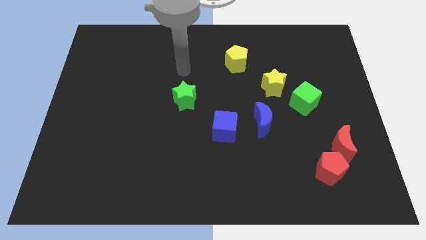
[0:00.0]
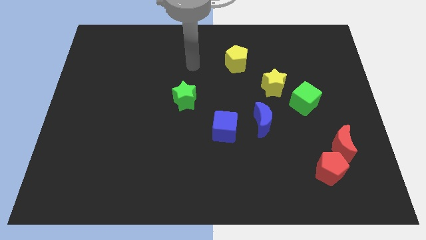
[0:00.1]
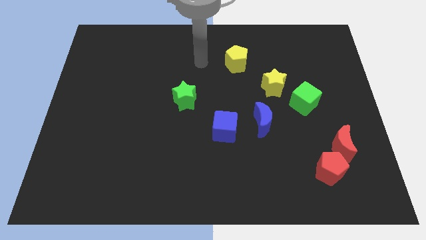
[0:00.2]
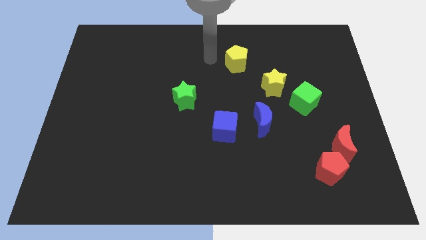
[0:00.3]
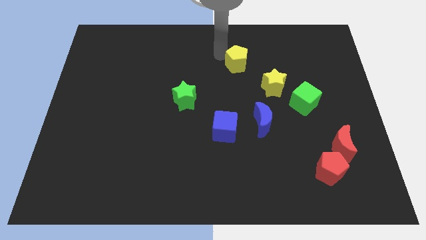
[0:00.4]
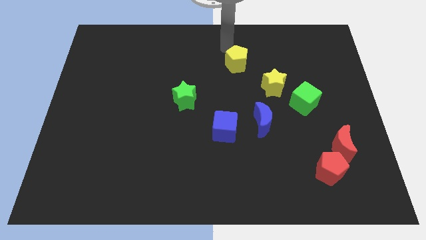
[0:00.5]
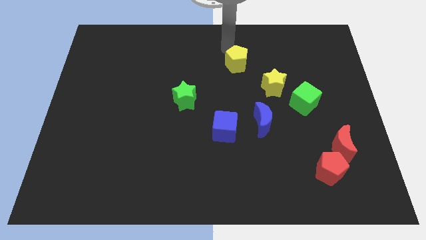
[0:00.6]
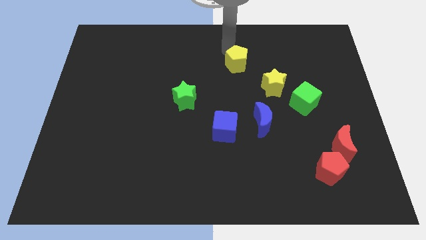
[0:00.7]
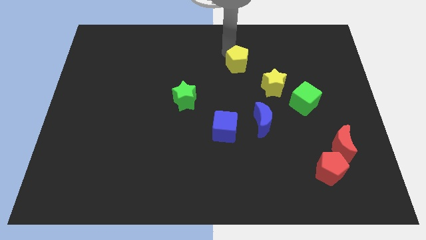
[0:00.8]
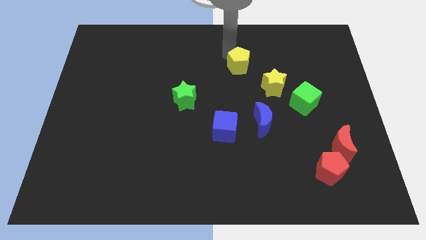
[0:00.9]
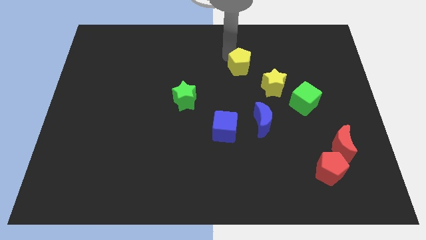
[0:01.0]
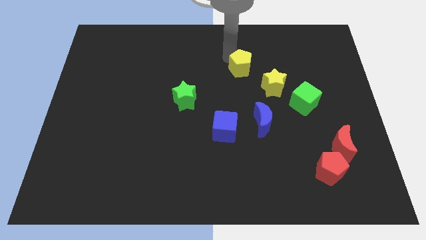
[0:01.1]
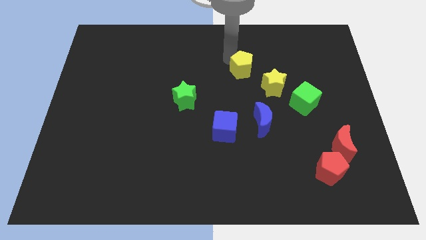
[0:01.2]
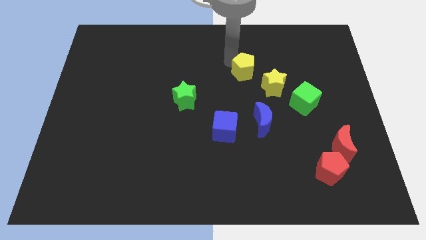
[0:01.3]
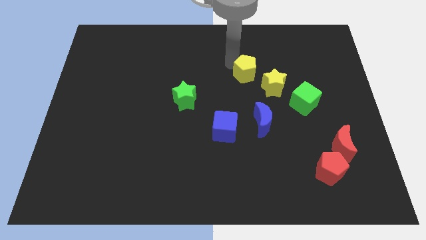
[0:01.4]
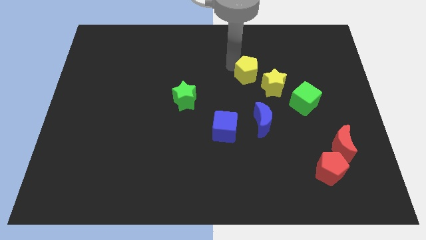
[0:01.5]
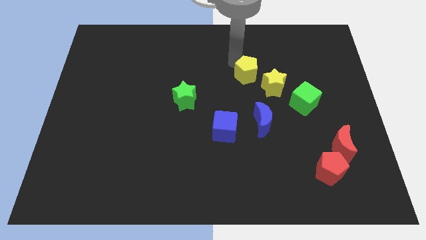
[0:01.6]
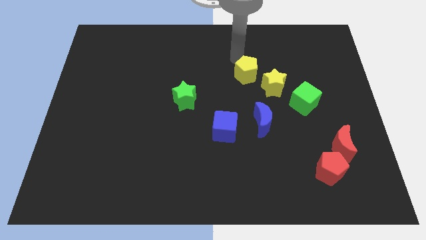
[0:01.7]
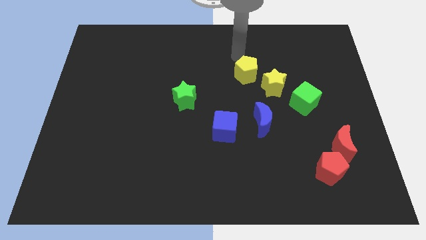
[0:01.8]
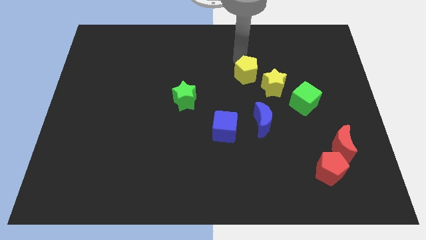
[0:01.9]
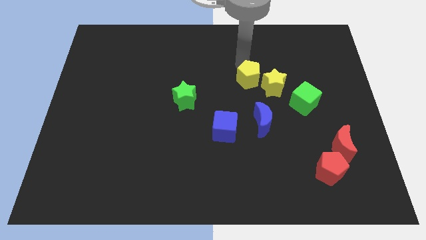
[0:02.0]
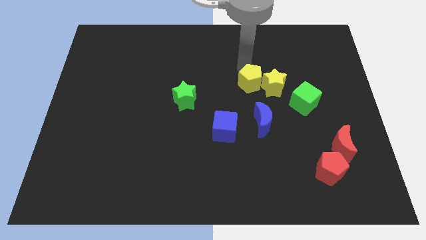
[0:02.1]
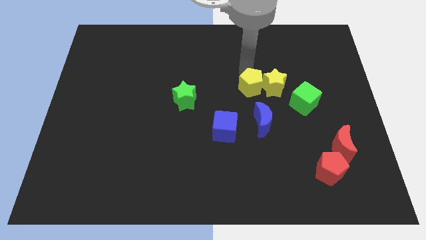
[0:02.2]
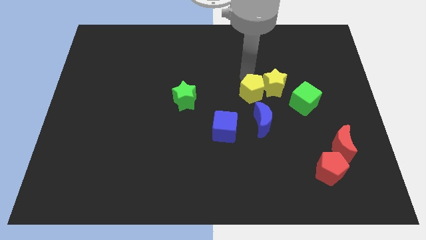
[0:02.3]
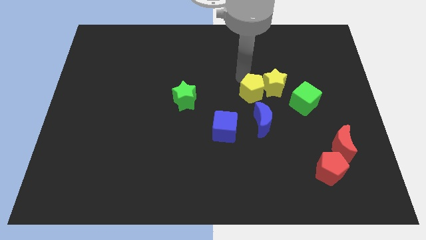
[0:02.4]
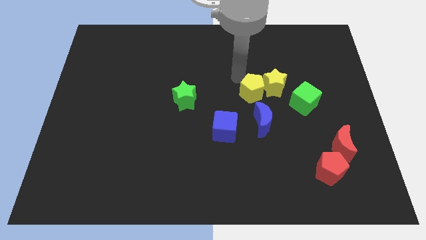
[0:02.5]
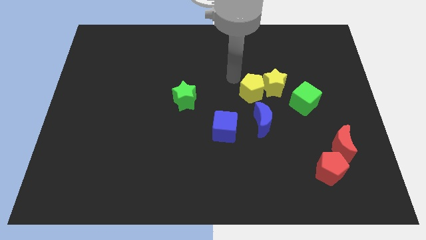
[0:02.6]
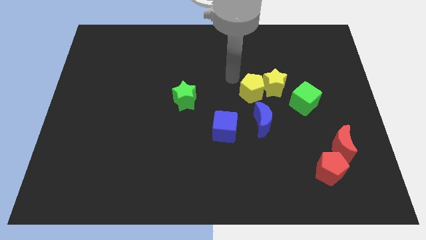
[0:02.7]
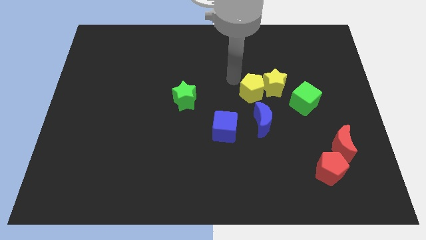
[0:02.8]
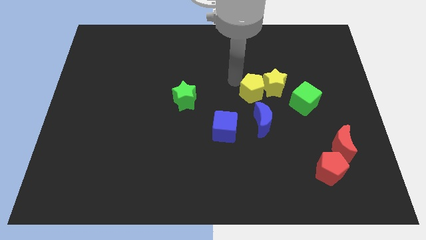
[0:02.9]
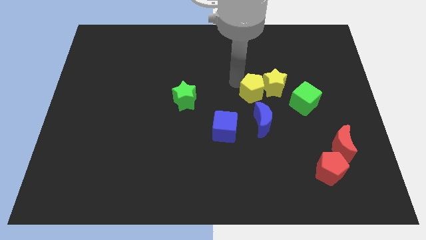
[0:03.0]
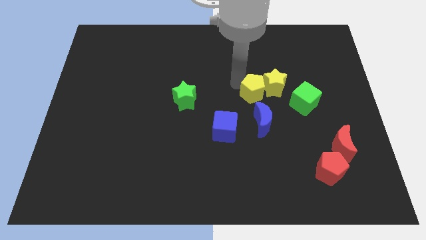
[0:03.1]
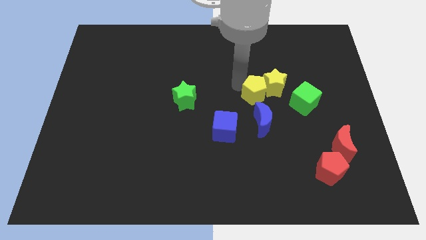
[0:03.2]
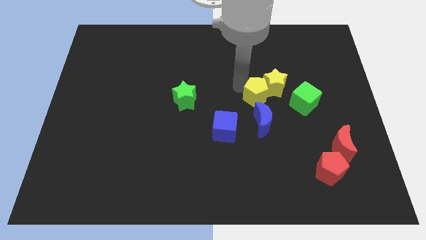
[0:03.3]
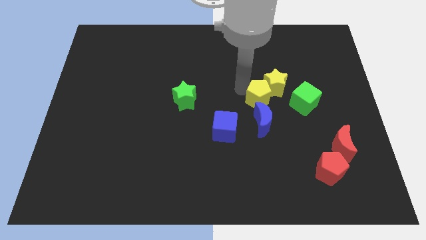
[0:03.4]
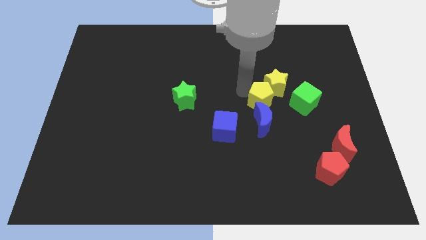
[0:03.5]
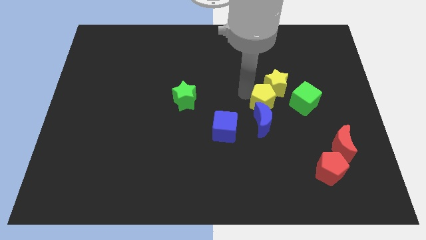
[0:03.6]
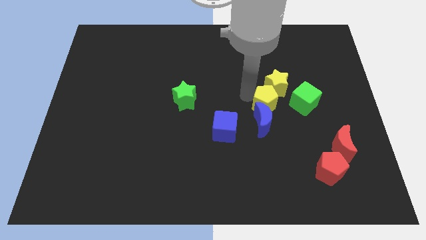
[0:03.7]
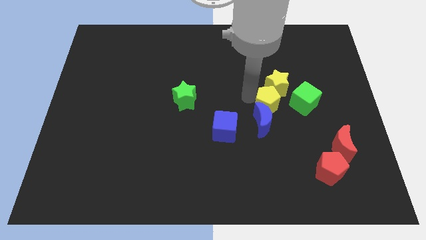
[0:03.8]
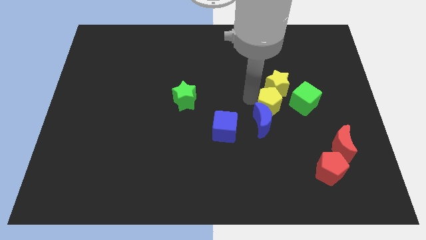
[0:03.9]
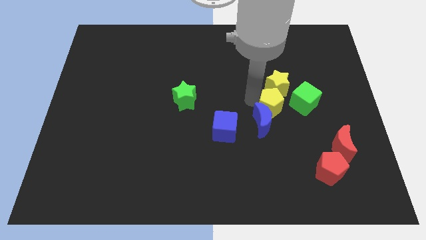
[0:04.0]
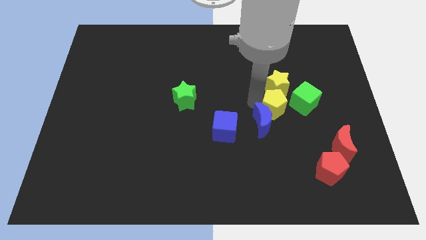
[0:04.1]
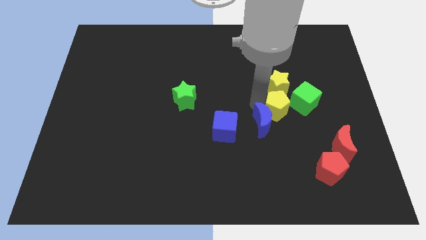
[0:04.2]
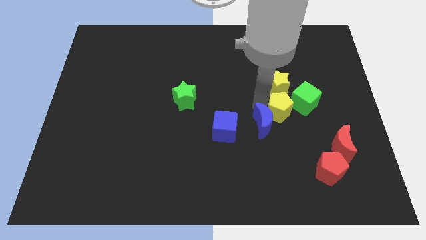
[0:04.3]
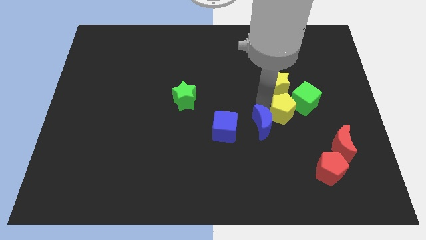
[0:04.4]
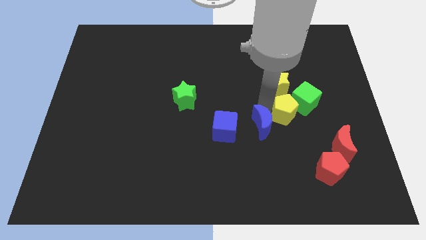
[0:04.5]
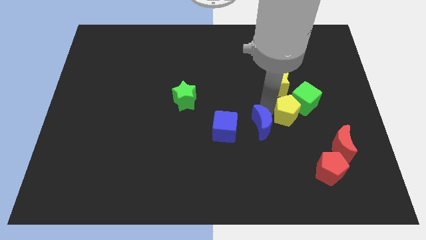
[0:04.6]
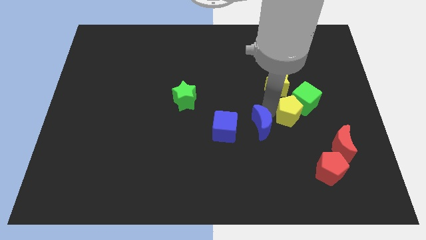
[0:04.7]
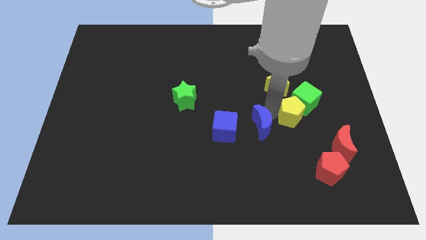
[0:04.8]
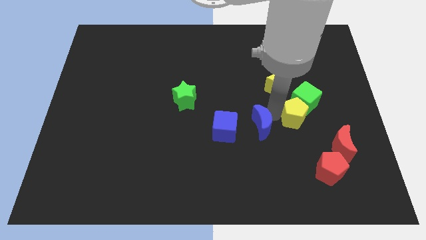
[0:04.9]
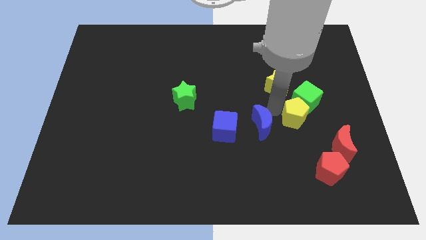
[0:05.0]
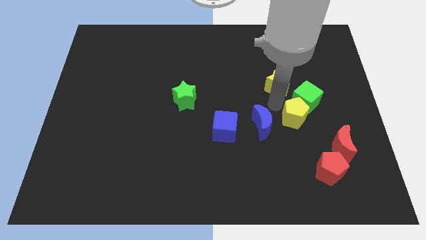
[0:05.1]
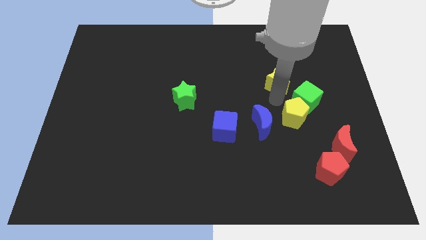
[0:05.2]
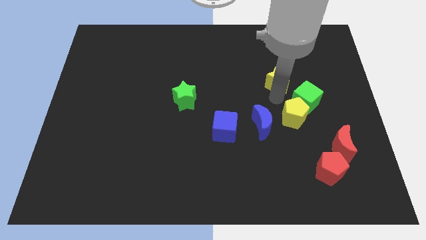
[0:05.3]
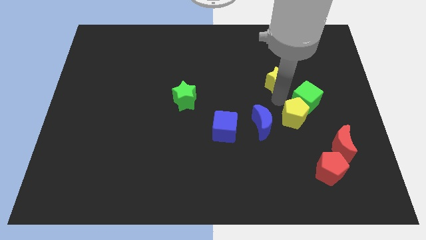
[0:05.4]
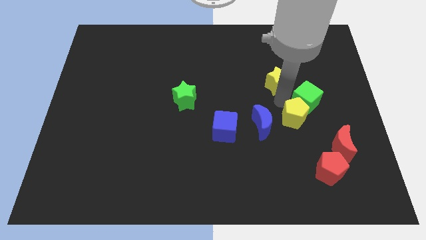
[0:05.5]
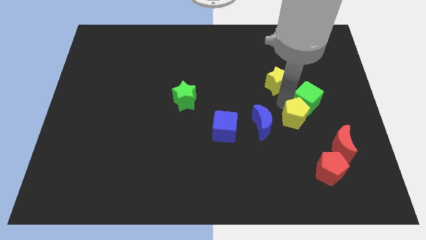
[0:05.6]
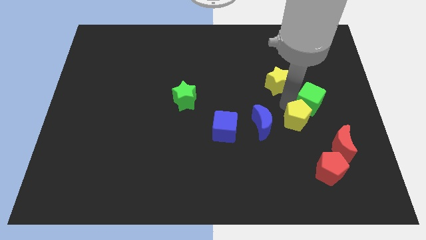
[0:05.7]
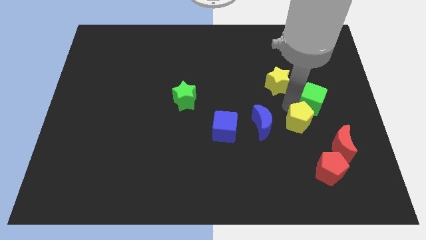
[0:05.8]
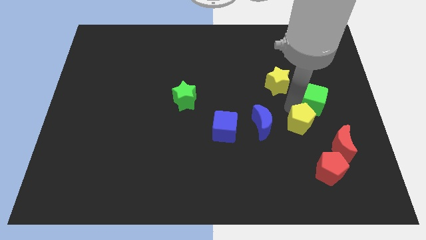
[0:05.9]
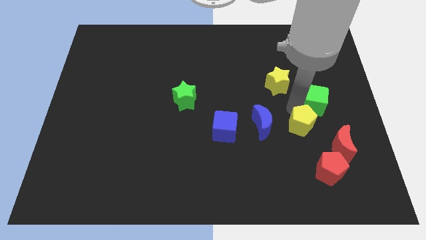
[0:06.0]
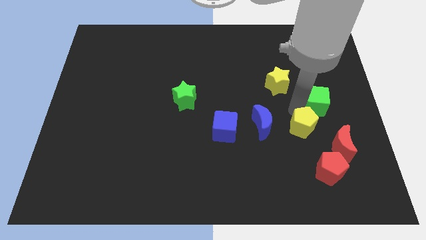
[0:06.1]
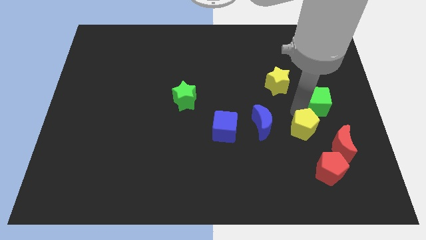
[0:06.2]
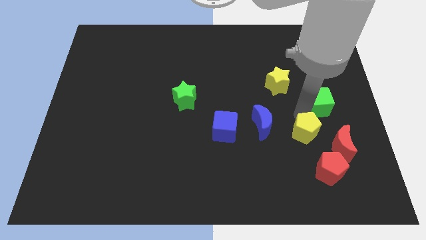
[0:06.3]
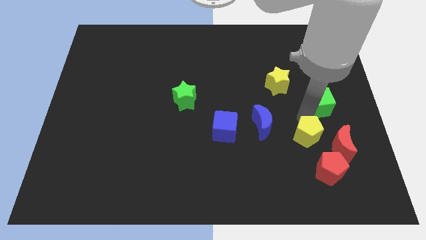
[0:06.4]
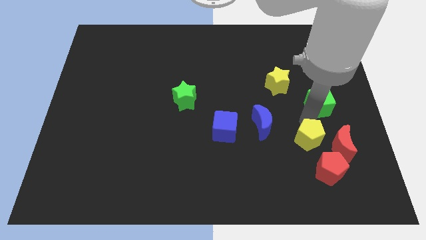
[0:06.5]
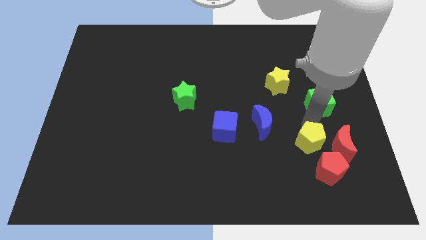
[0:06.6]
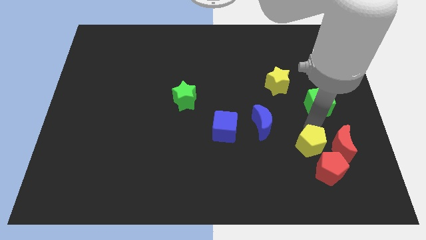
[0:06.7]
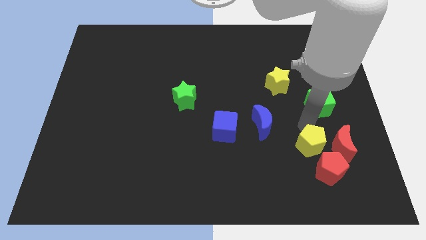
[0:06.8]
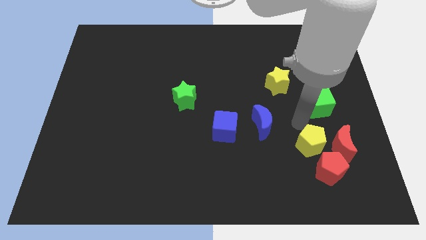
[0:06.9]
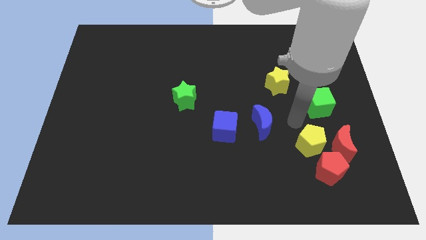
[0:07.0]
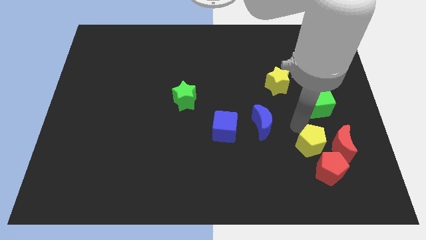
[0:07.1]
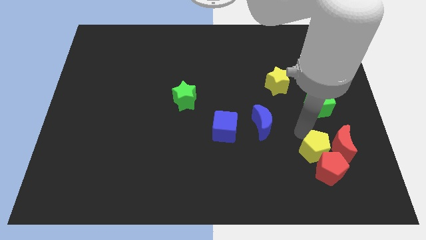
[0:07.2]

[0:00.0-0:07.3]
move the yellow pentagon next to the red pentagon

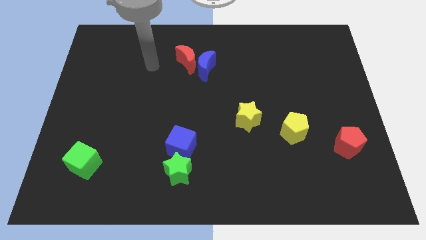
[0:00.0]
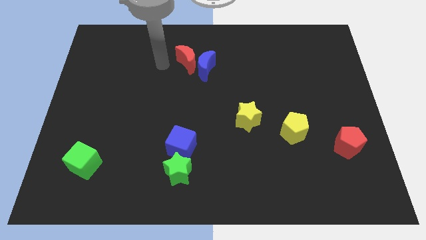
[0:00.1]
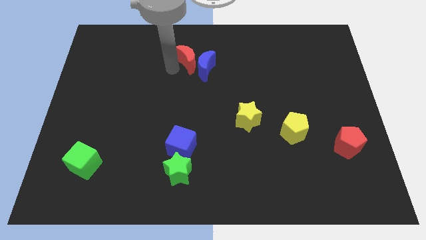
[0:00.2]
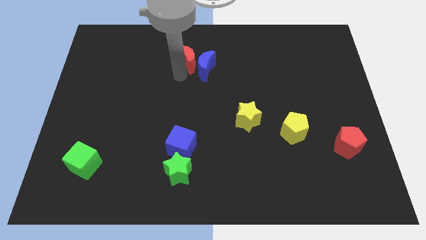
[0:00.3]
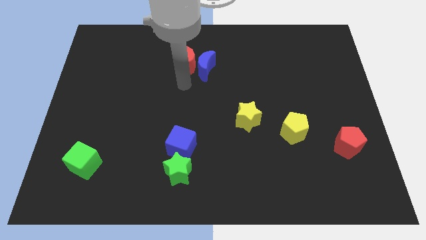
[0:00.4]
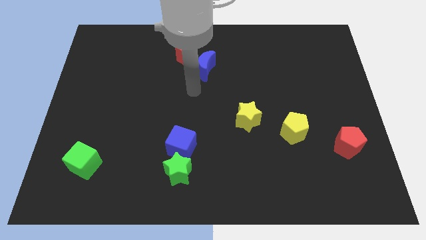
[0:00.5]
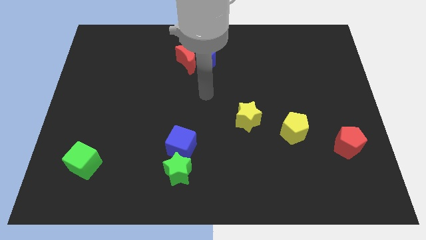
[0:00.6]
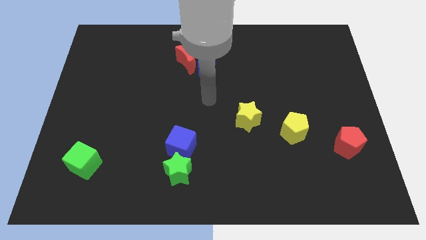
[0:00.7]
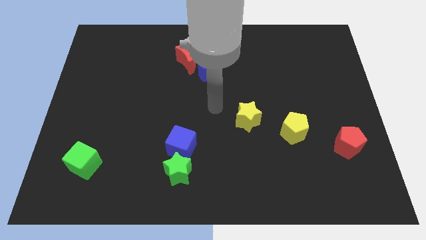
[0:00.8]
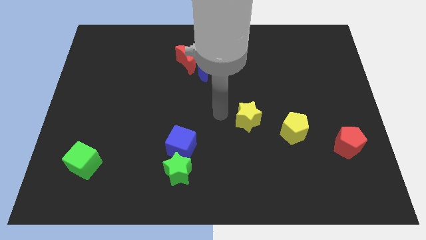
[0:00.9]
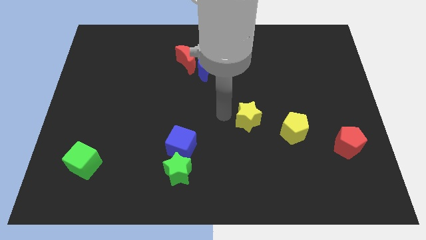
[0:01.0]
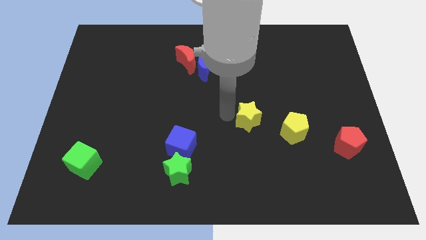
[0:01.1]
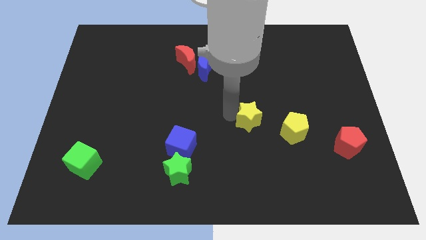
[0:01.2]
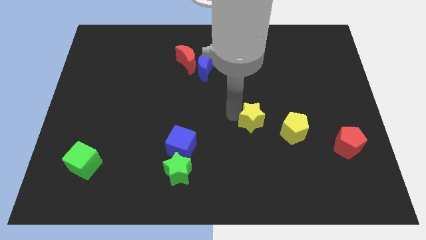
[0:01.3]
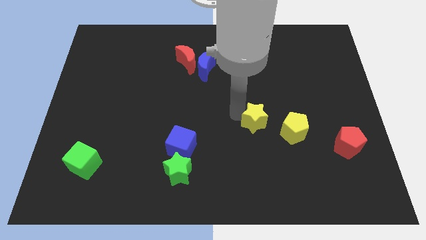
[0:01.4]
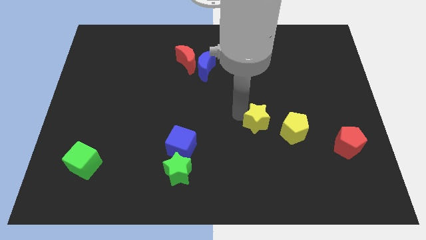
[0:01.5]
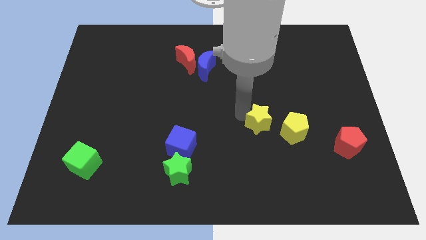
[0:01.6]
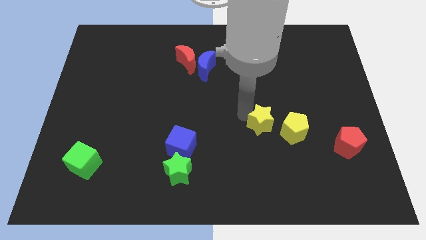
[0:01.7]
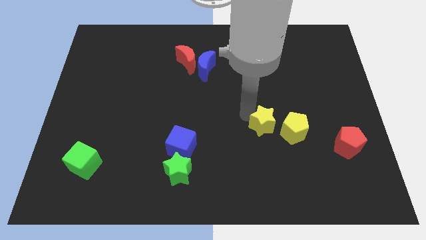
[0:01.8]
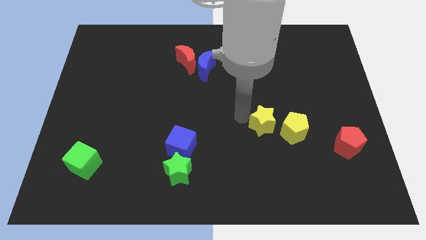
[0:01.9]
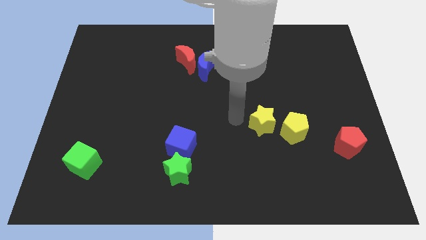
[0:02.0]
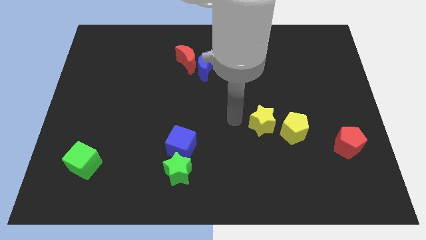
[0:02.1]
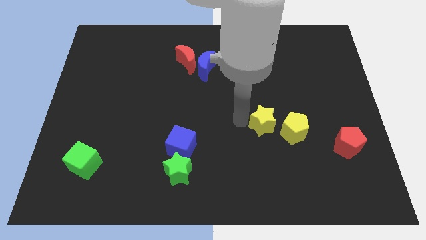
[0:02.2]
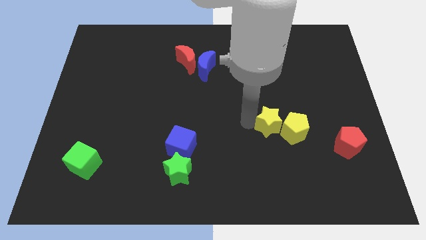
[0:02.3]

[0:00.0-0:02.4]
move the yellow star close to the yellow pentagon
